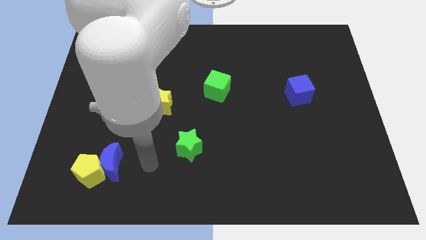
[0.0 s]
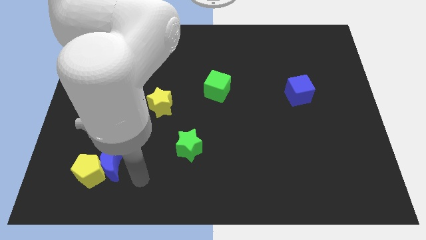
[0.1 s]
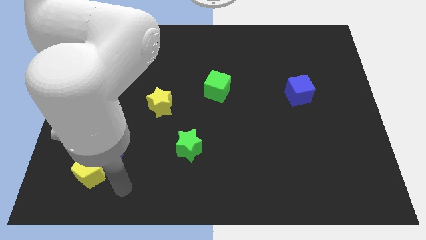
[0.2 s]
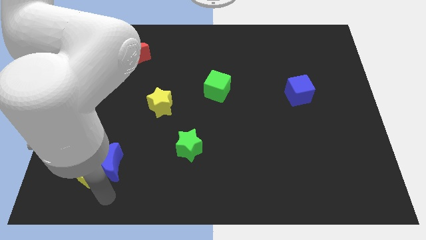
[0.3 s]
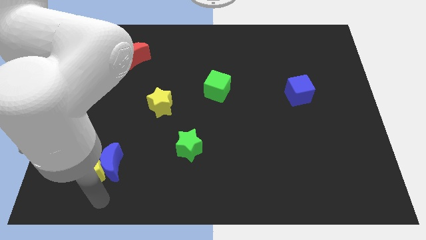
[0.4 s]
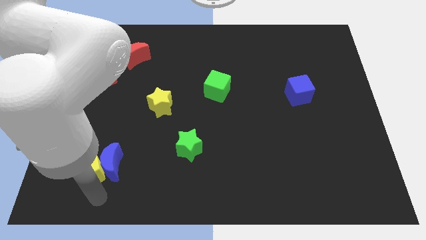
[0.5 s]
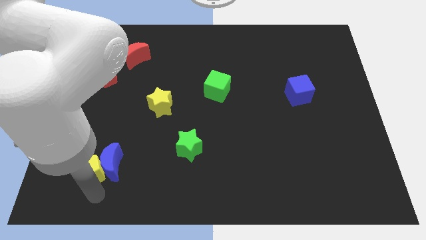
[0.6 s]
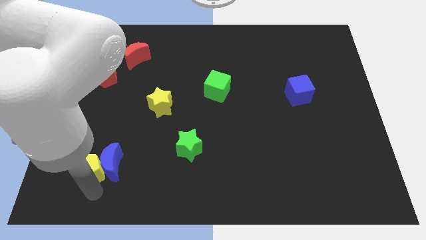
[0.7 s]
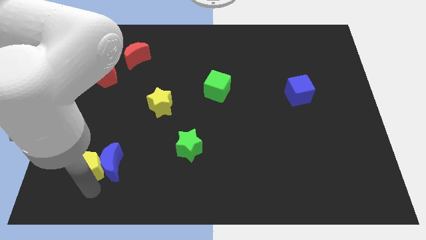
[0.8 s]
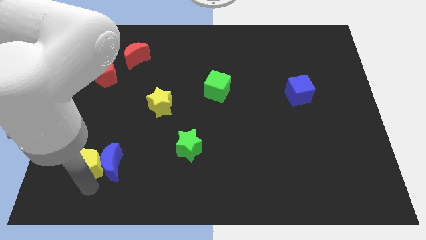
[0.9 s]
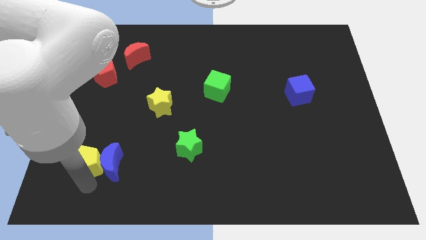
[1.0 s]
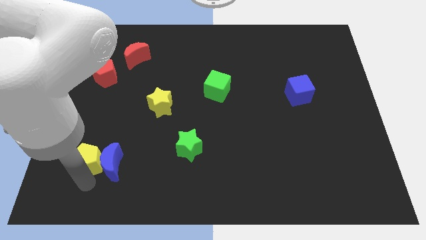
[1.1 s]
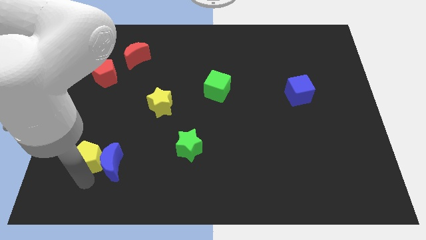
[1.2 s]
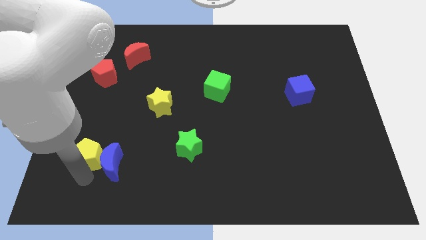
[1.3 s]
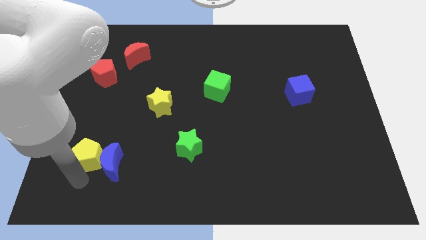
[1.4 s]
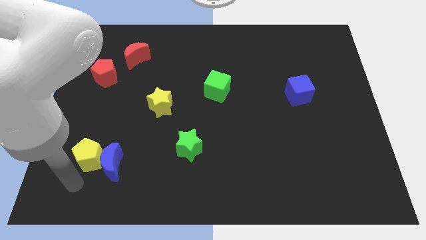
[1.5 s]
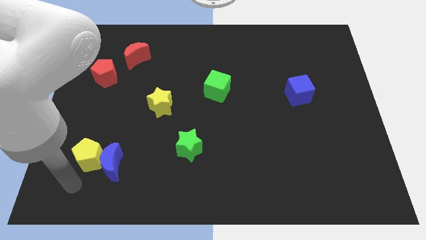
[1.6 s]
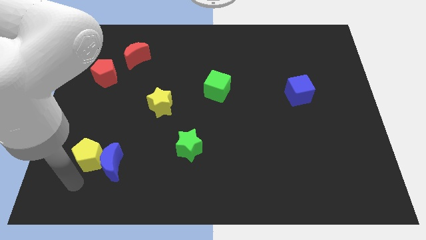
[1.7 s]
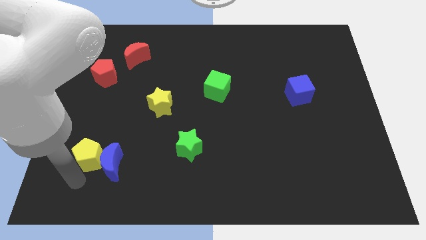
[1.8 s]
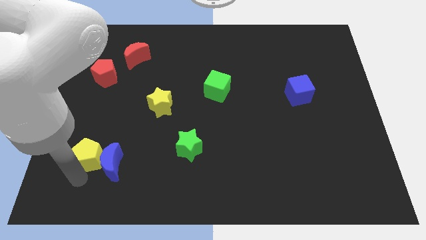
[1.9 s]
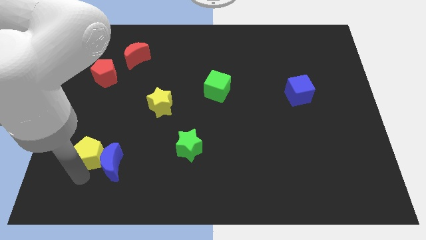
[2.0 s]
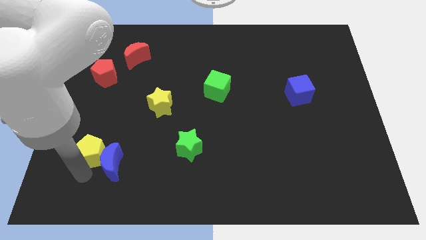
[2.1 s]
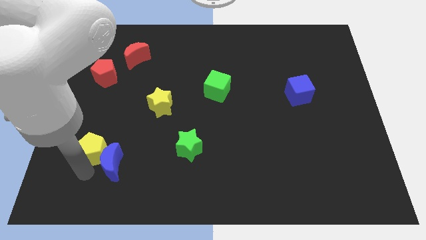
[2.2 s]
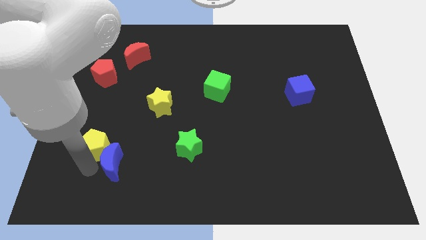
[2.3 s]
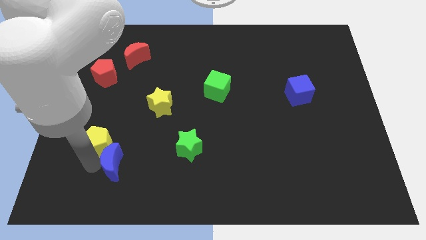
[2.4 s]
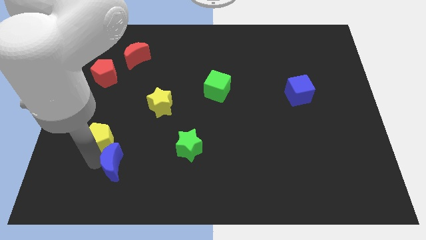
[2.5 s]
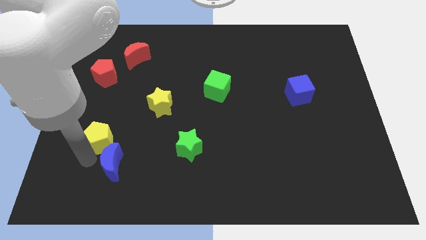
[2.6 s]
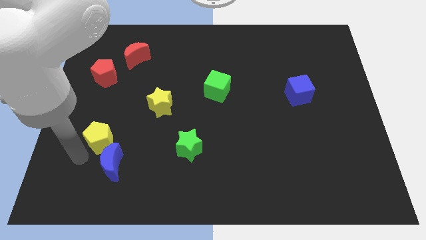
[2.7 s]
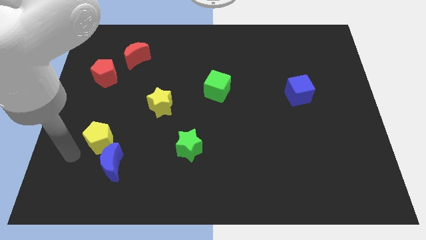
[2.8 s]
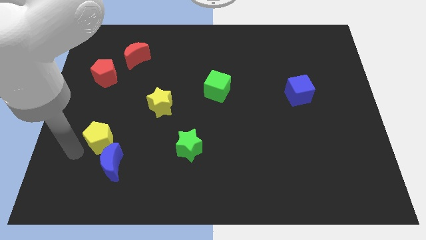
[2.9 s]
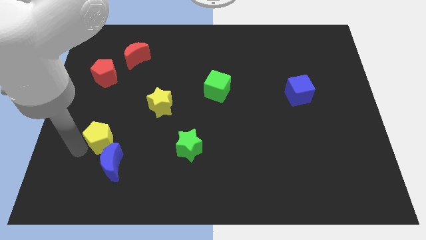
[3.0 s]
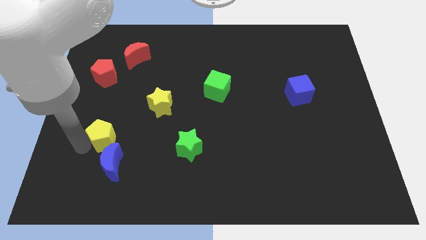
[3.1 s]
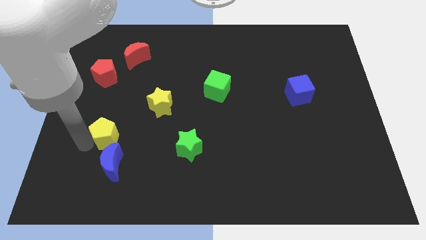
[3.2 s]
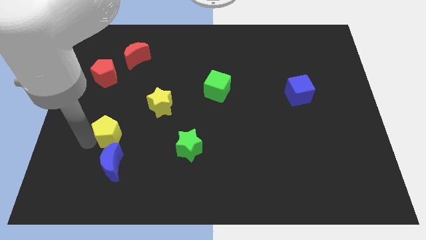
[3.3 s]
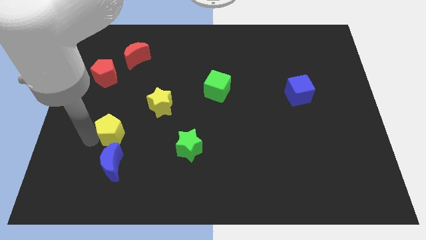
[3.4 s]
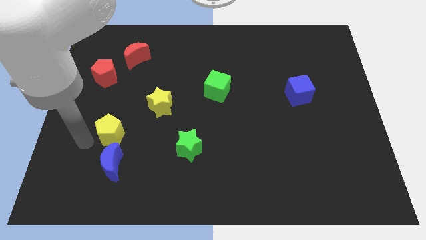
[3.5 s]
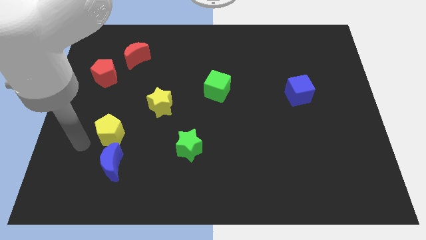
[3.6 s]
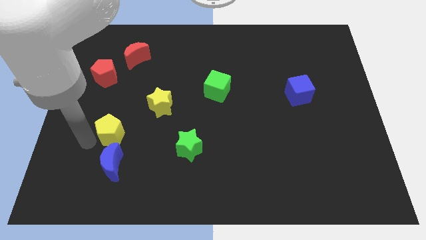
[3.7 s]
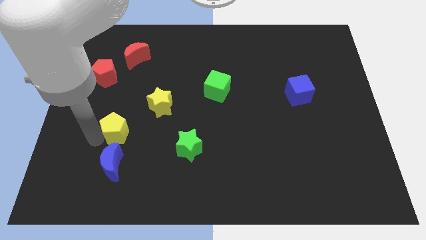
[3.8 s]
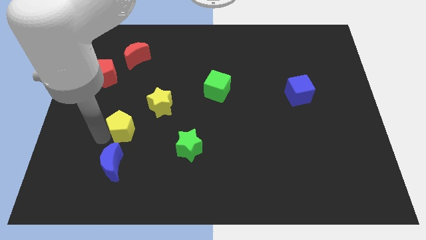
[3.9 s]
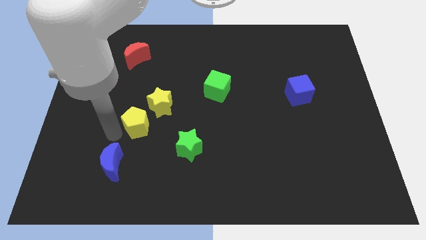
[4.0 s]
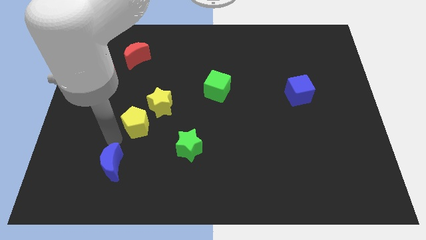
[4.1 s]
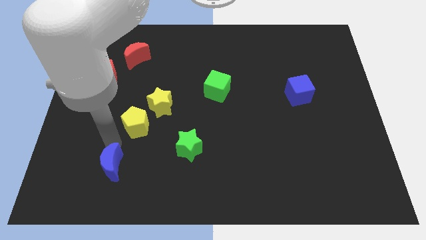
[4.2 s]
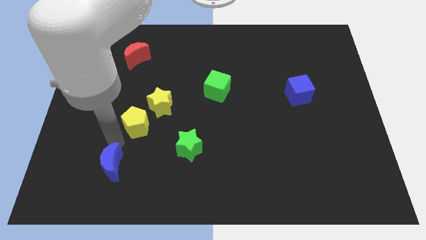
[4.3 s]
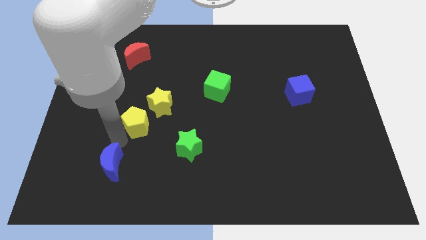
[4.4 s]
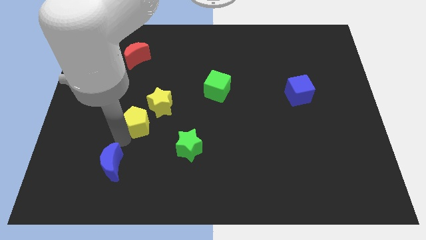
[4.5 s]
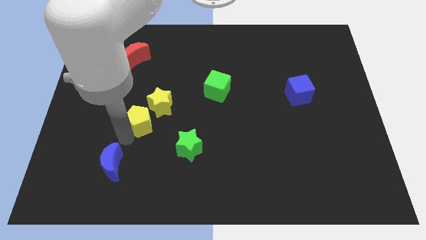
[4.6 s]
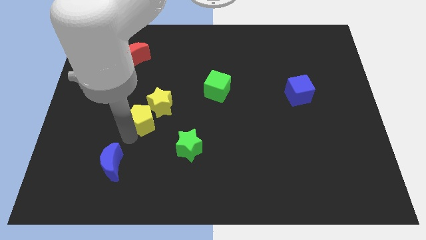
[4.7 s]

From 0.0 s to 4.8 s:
slide the yellow pentagon to the yellow star

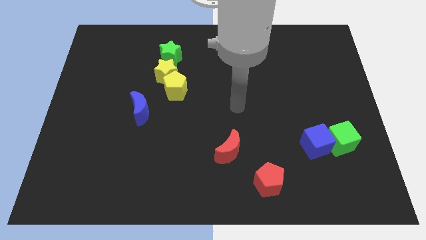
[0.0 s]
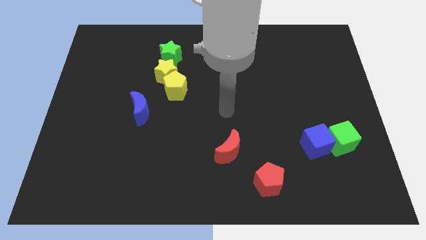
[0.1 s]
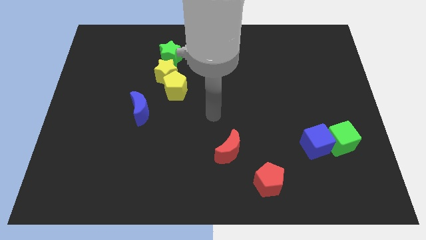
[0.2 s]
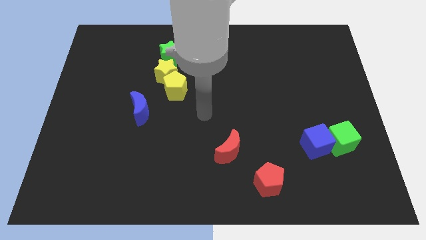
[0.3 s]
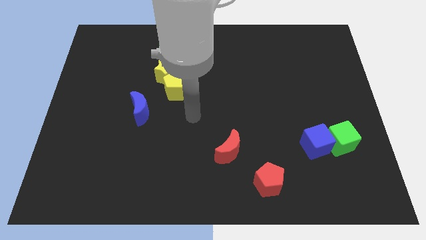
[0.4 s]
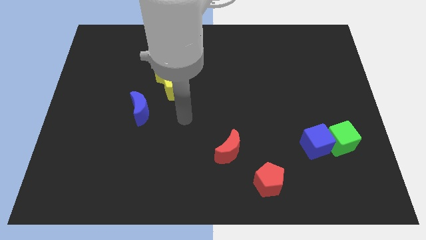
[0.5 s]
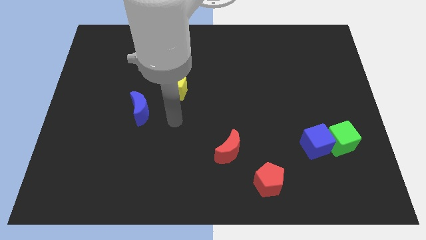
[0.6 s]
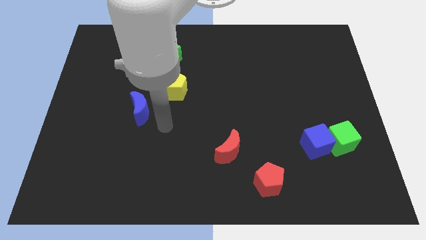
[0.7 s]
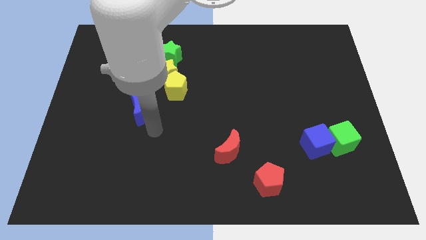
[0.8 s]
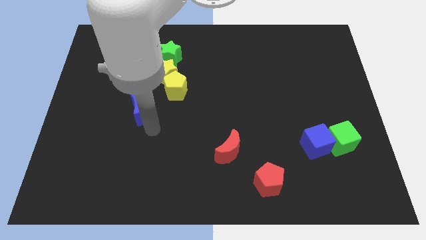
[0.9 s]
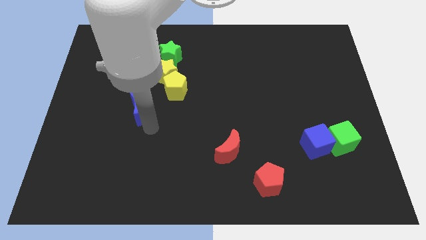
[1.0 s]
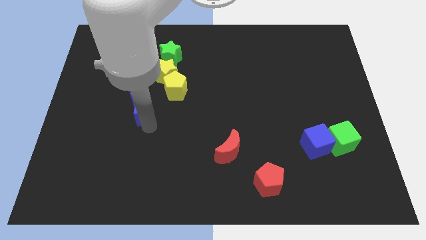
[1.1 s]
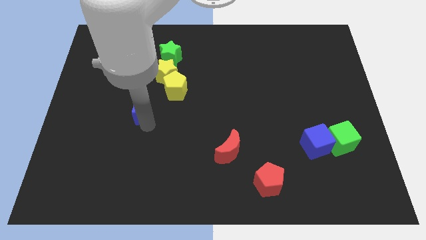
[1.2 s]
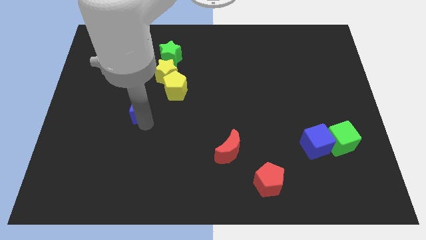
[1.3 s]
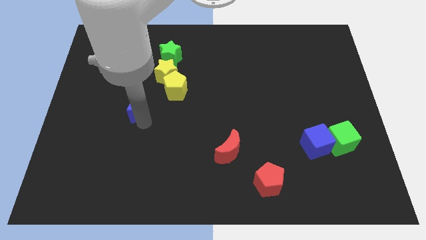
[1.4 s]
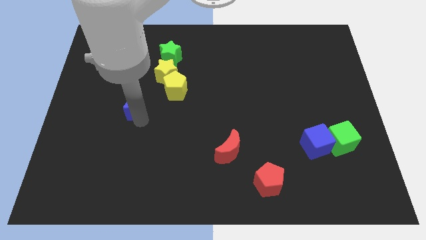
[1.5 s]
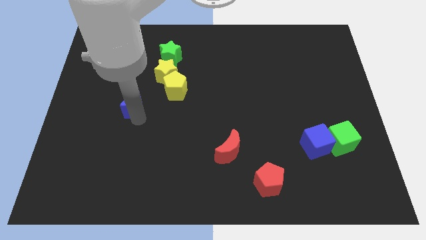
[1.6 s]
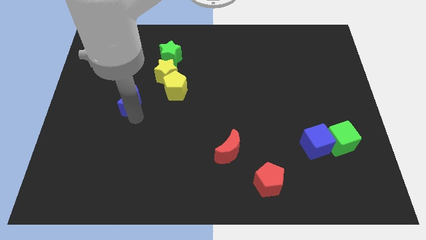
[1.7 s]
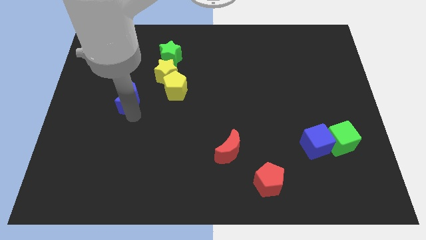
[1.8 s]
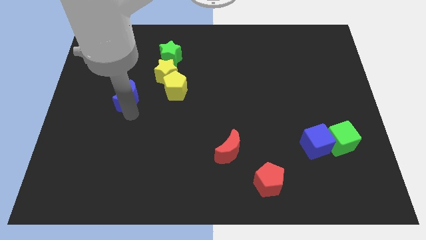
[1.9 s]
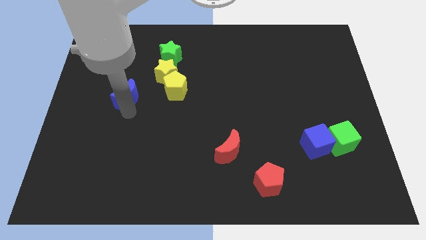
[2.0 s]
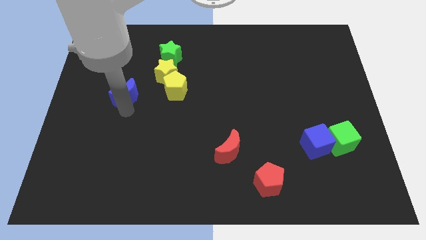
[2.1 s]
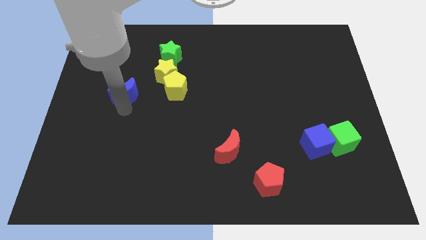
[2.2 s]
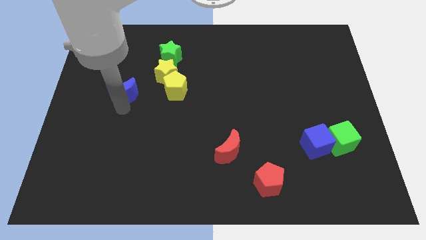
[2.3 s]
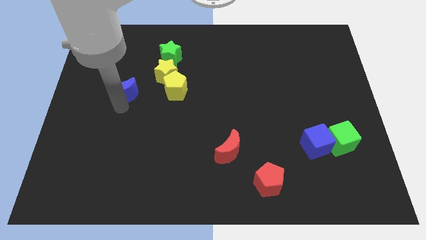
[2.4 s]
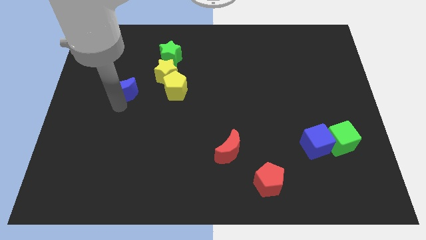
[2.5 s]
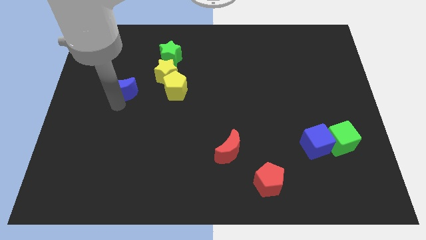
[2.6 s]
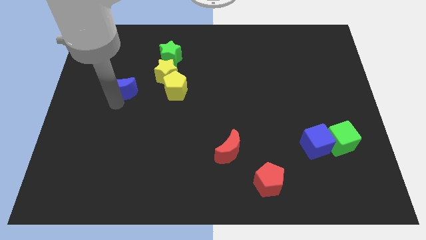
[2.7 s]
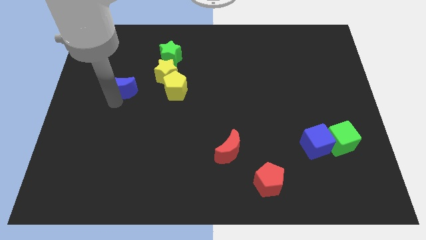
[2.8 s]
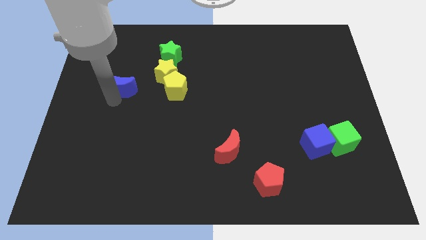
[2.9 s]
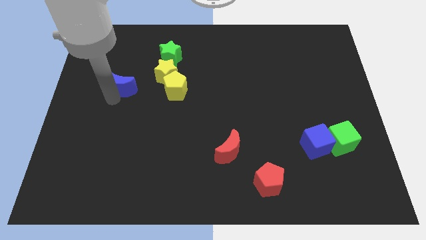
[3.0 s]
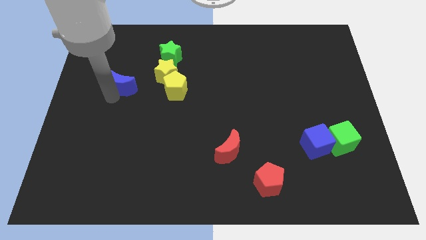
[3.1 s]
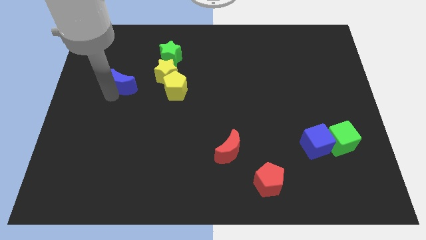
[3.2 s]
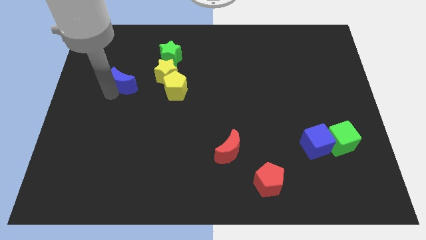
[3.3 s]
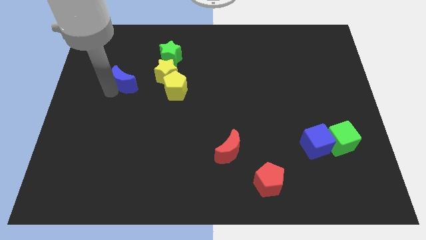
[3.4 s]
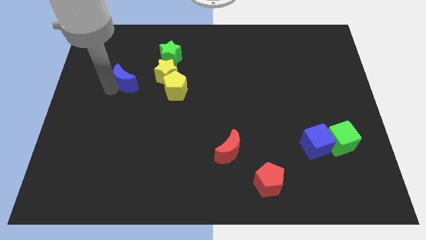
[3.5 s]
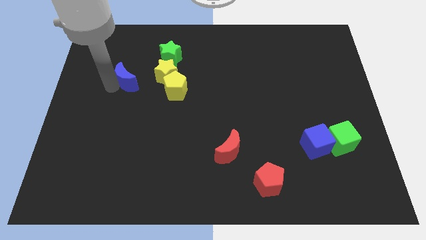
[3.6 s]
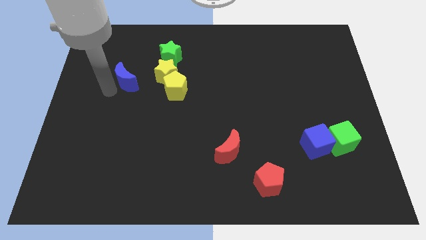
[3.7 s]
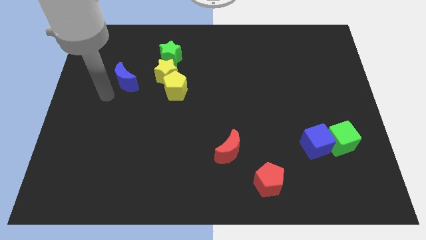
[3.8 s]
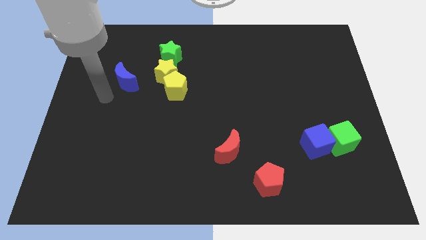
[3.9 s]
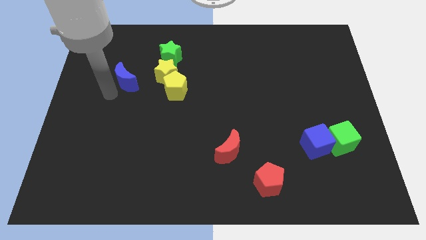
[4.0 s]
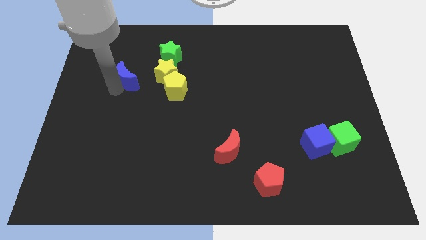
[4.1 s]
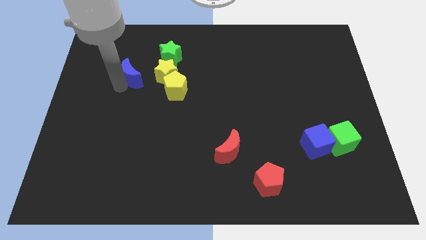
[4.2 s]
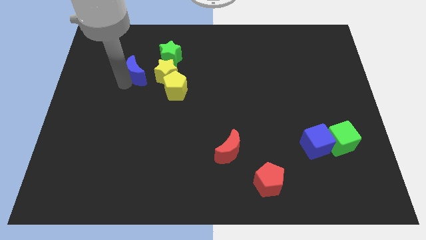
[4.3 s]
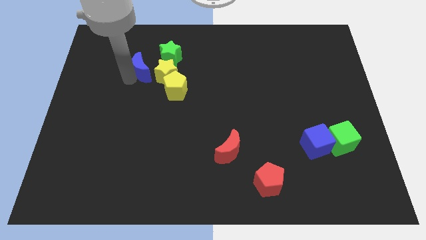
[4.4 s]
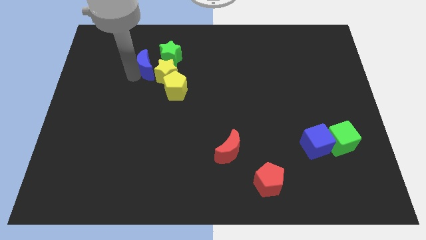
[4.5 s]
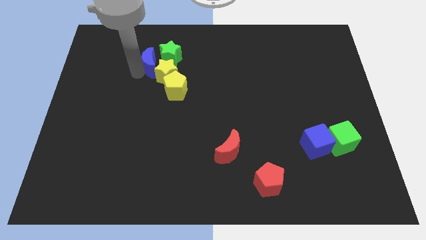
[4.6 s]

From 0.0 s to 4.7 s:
push the blue moon next to the green star
